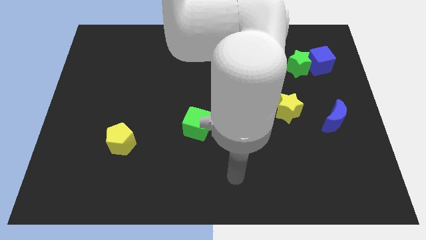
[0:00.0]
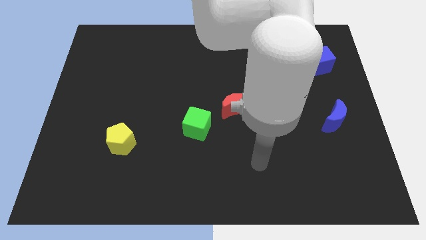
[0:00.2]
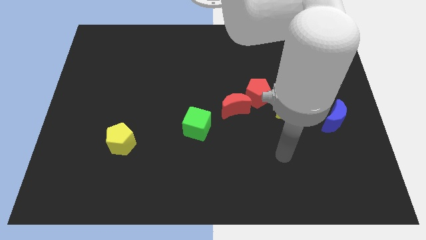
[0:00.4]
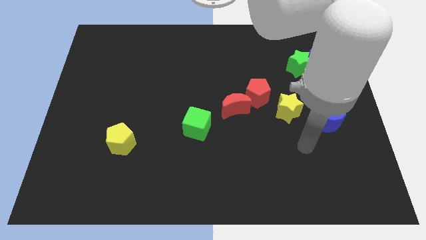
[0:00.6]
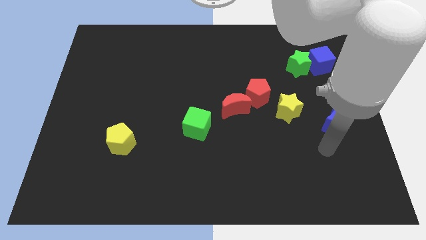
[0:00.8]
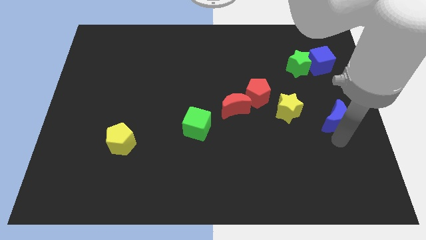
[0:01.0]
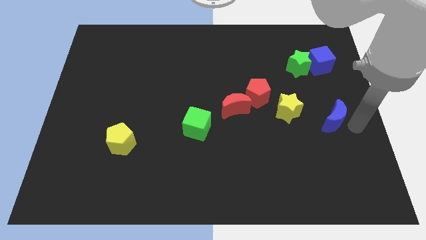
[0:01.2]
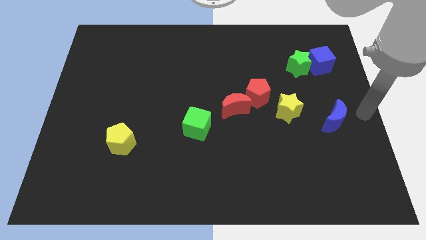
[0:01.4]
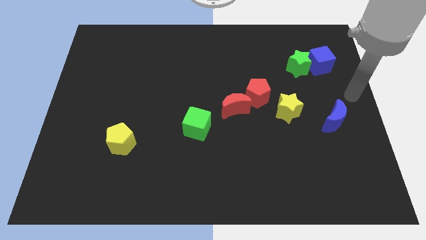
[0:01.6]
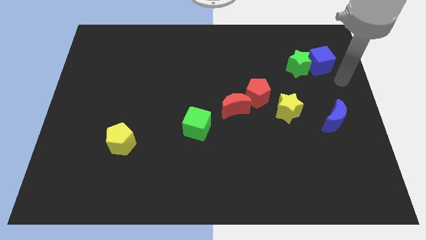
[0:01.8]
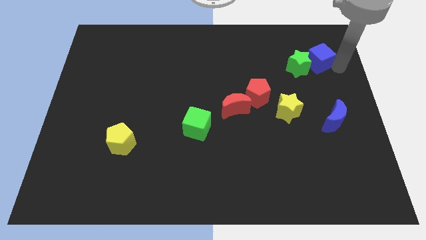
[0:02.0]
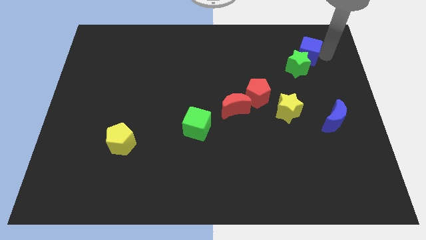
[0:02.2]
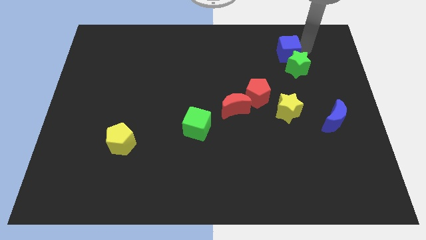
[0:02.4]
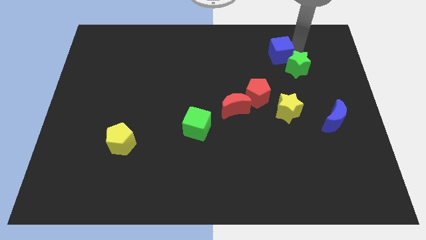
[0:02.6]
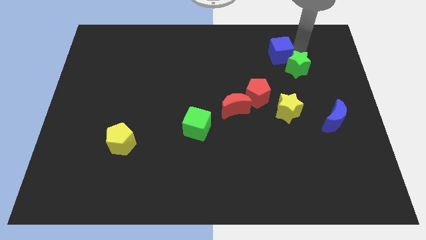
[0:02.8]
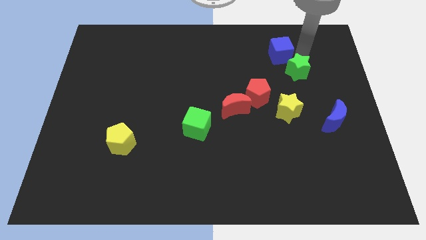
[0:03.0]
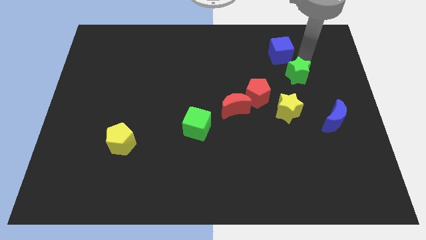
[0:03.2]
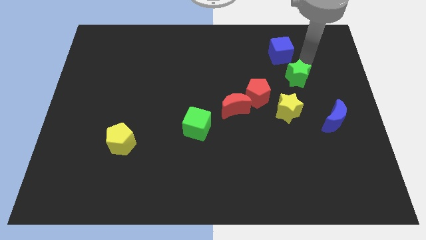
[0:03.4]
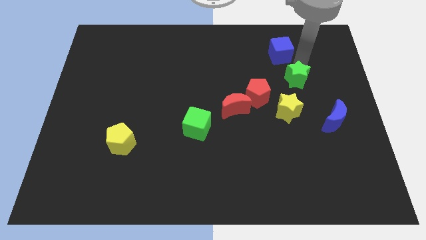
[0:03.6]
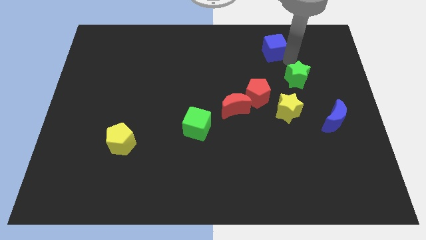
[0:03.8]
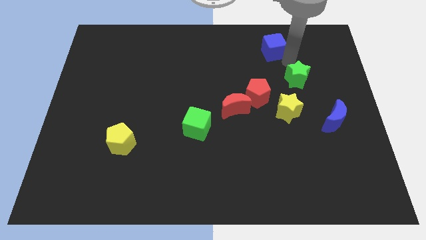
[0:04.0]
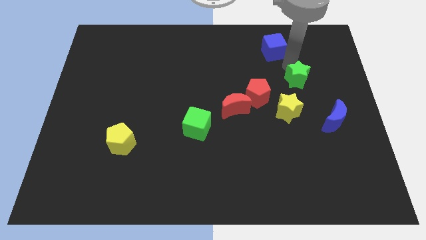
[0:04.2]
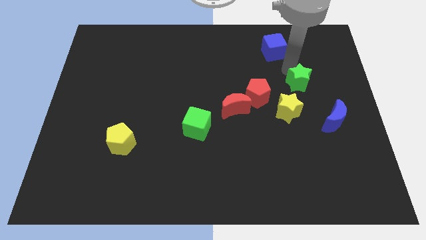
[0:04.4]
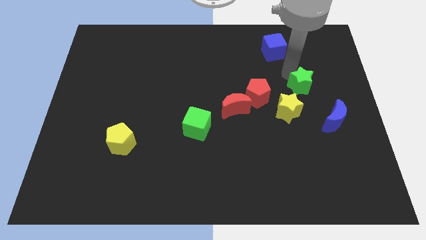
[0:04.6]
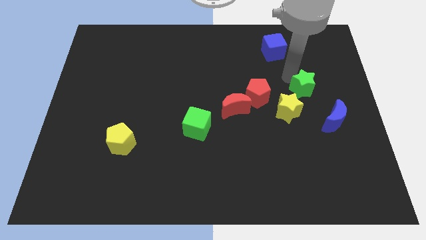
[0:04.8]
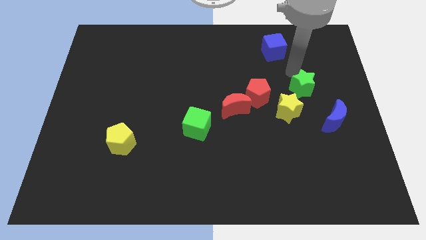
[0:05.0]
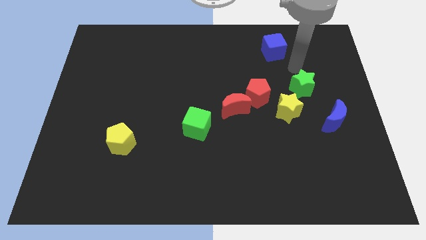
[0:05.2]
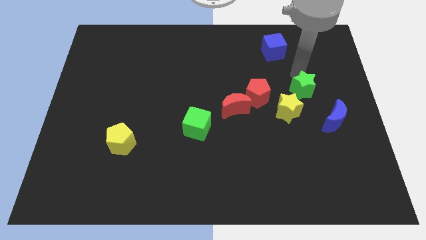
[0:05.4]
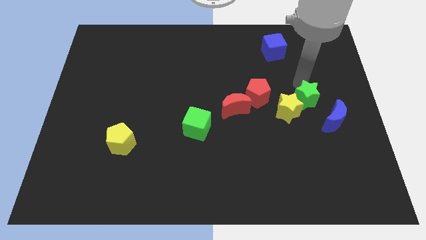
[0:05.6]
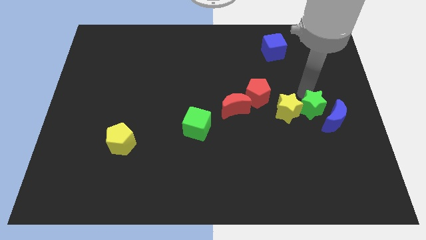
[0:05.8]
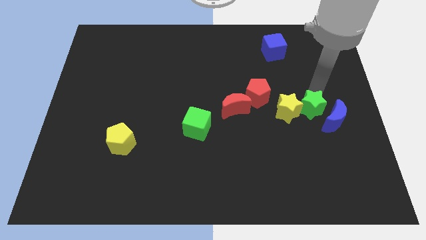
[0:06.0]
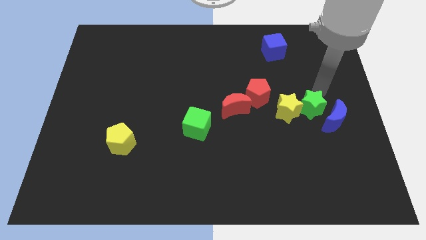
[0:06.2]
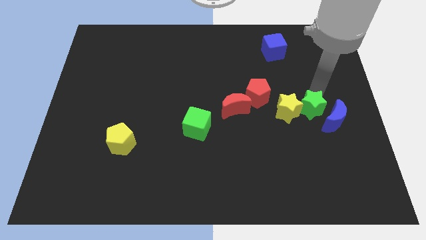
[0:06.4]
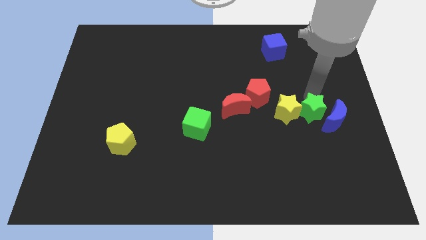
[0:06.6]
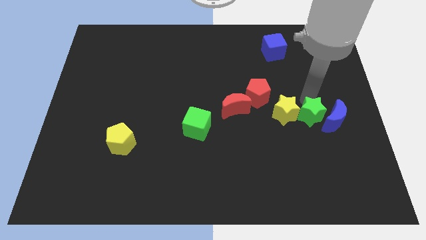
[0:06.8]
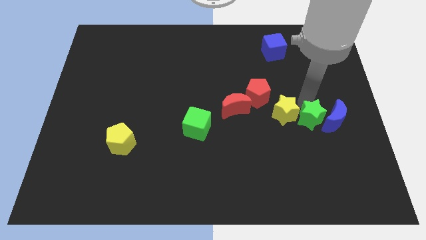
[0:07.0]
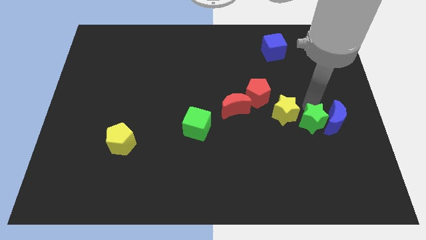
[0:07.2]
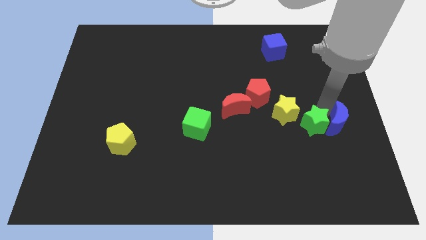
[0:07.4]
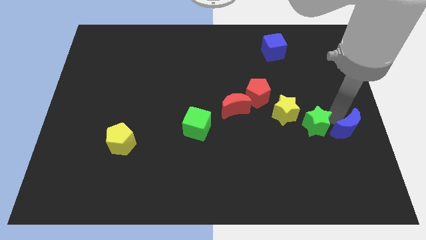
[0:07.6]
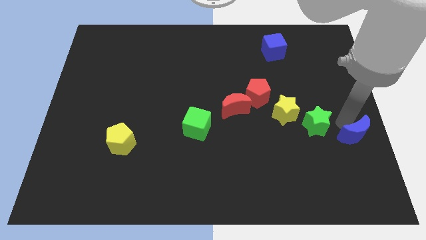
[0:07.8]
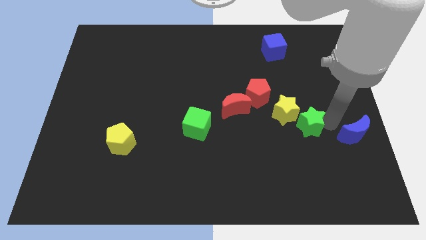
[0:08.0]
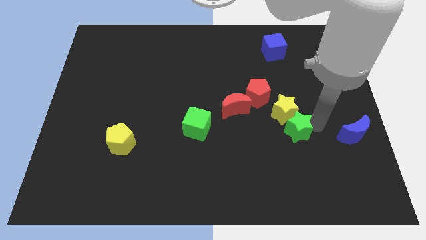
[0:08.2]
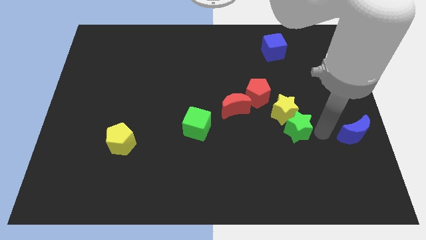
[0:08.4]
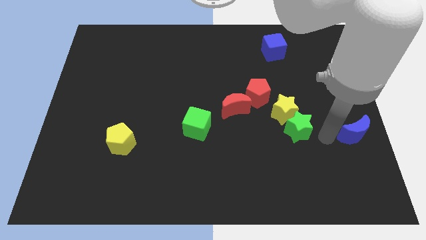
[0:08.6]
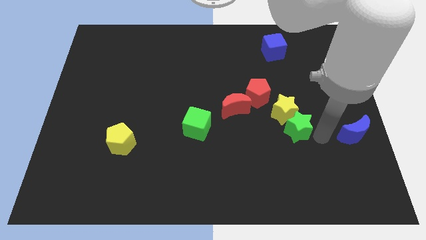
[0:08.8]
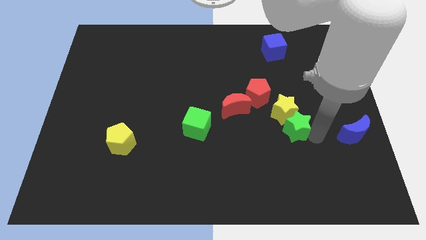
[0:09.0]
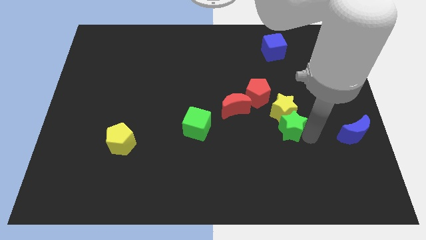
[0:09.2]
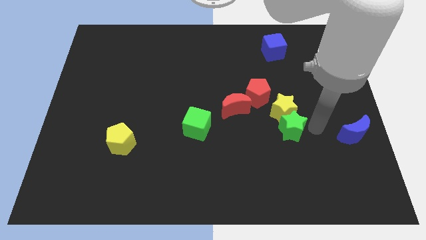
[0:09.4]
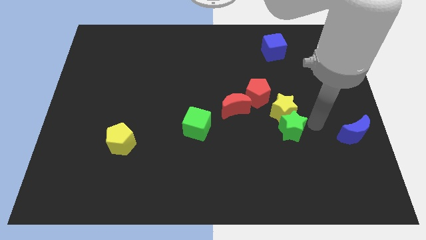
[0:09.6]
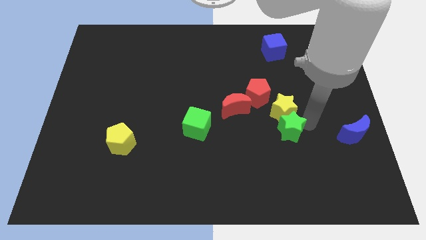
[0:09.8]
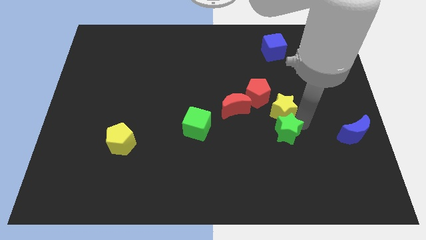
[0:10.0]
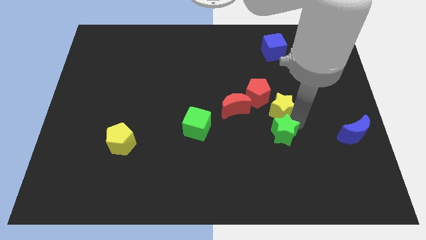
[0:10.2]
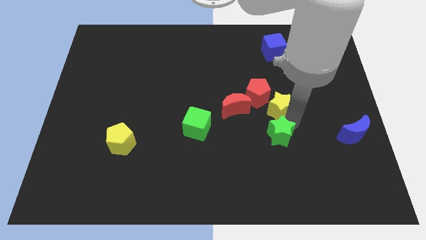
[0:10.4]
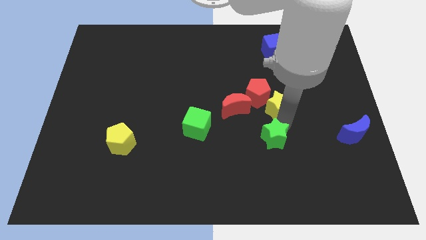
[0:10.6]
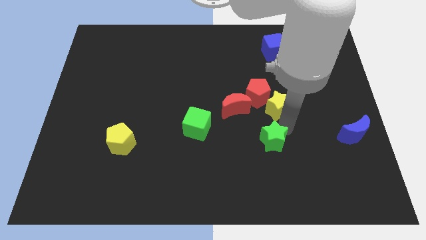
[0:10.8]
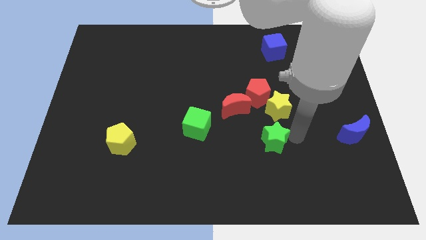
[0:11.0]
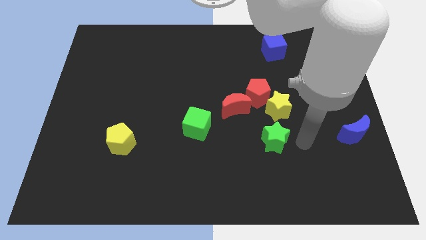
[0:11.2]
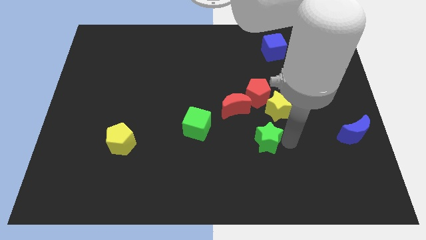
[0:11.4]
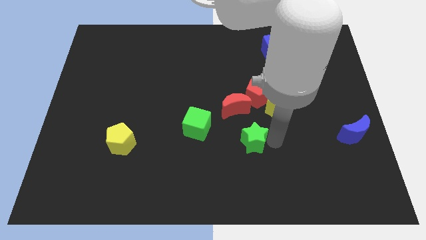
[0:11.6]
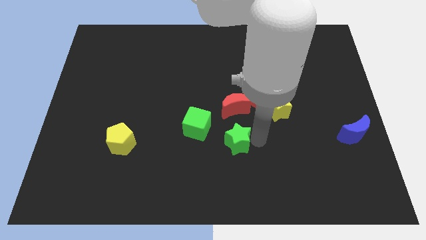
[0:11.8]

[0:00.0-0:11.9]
slide the green star diagonally down and to the right of the green cube

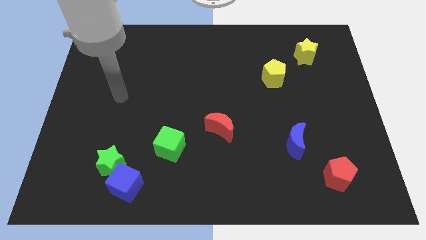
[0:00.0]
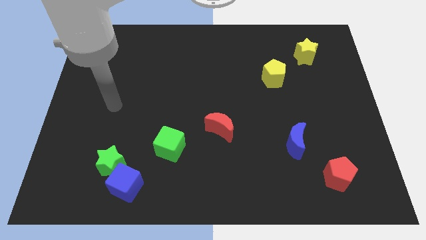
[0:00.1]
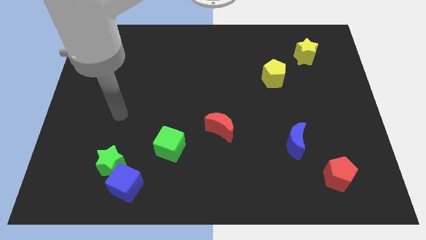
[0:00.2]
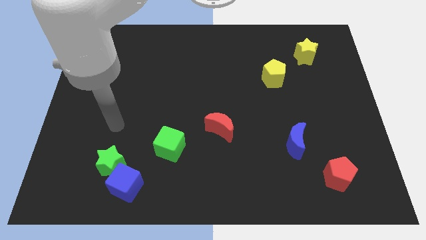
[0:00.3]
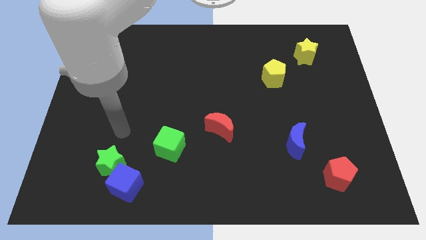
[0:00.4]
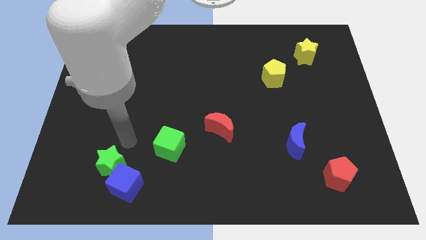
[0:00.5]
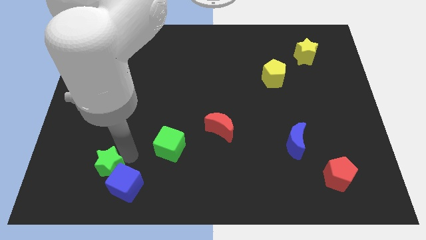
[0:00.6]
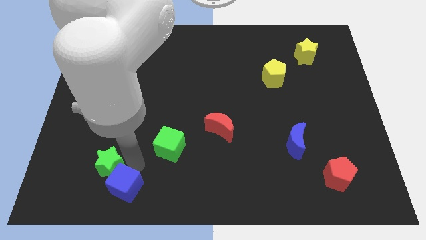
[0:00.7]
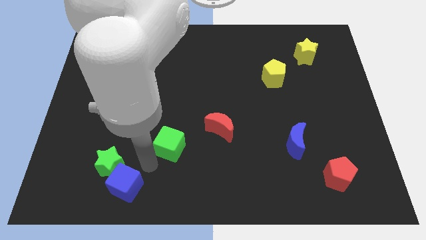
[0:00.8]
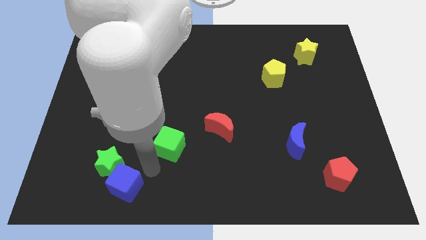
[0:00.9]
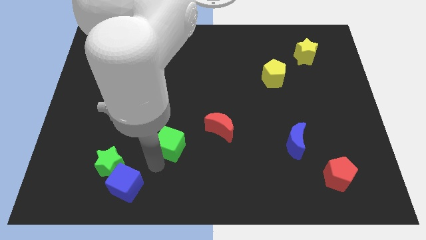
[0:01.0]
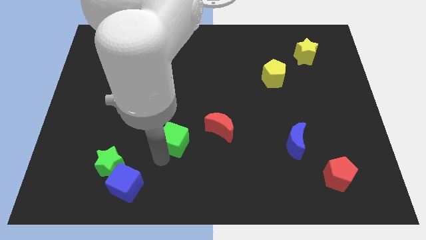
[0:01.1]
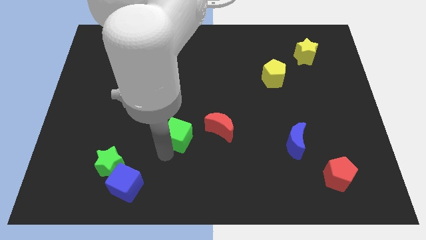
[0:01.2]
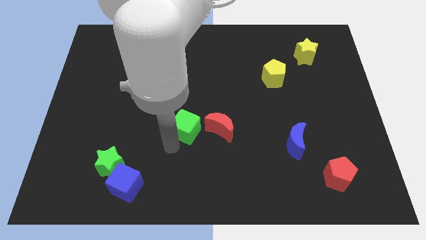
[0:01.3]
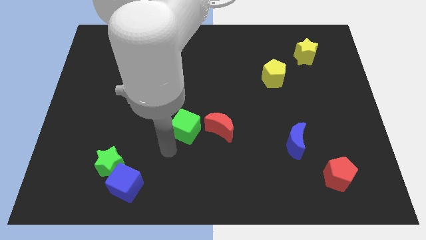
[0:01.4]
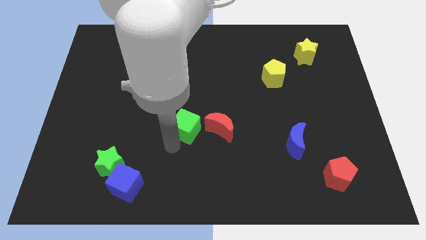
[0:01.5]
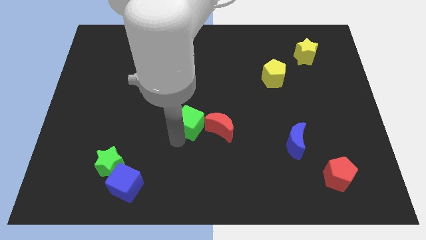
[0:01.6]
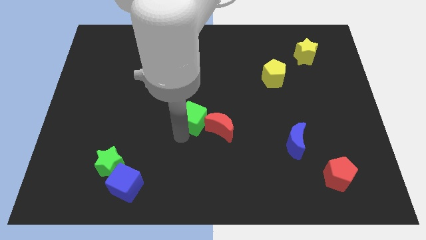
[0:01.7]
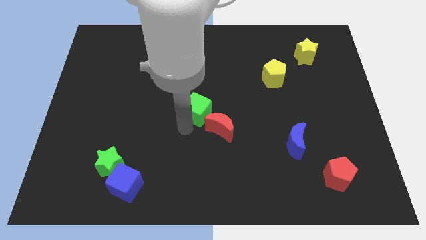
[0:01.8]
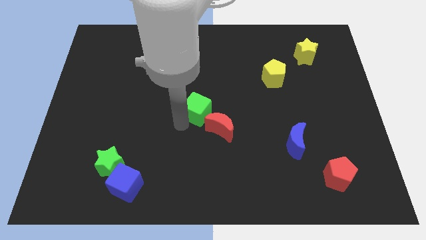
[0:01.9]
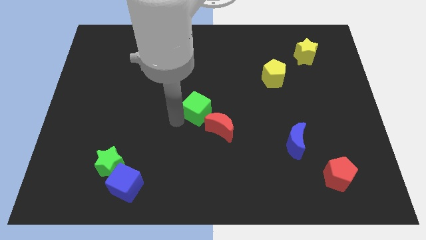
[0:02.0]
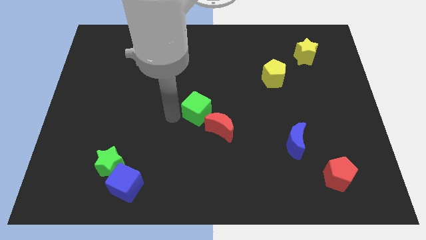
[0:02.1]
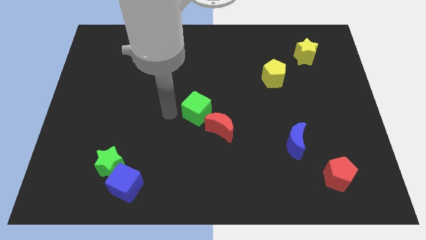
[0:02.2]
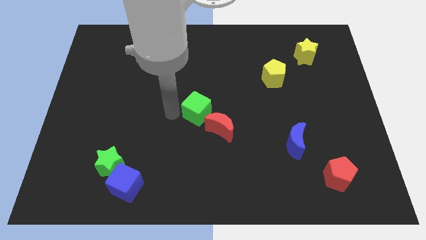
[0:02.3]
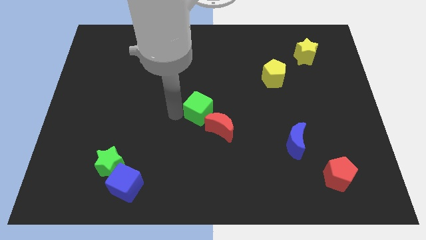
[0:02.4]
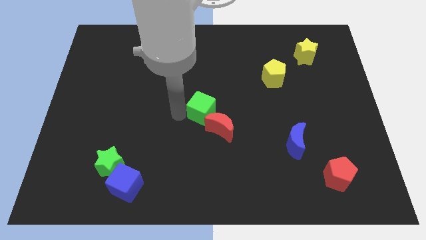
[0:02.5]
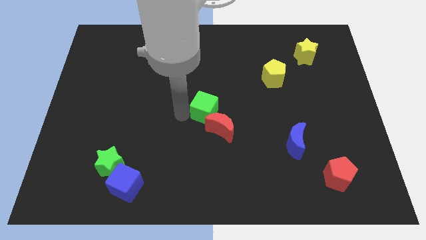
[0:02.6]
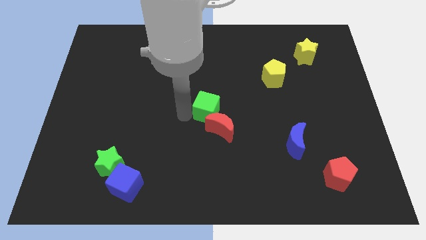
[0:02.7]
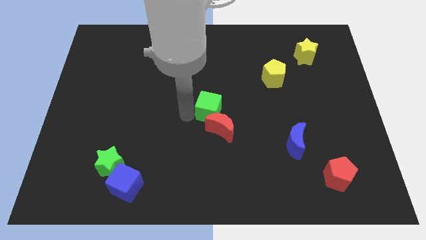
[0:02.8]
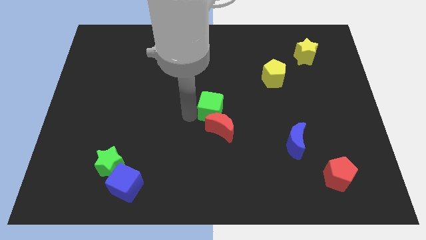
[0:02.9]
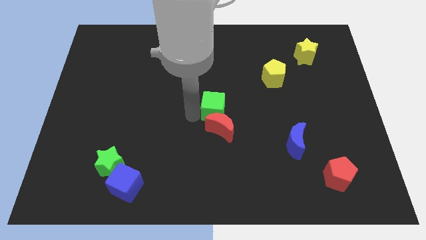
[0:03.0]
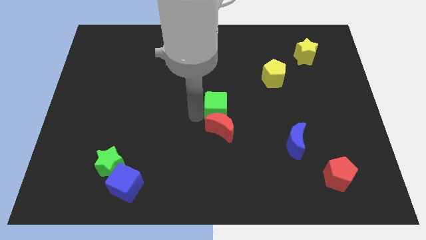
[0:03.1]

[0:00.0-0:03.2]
put the green cube to the top right of the red moon
